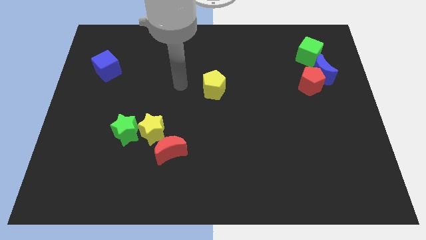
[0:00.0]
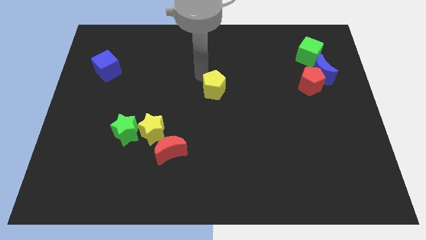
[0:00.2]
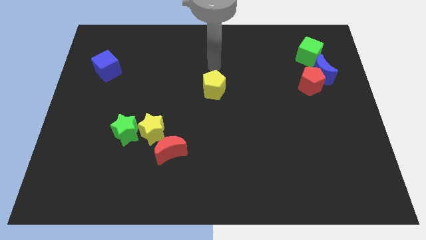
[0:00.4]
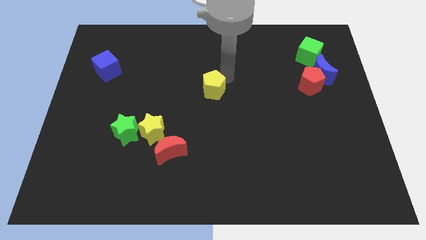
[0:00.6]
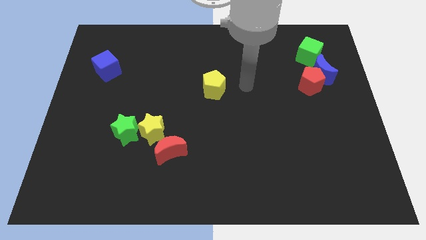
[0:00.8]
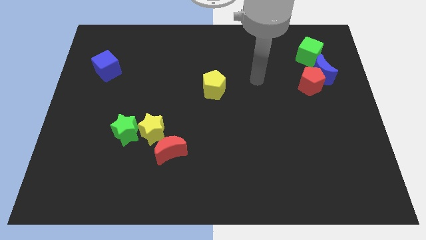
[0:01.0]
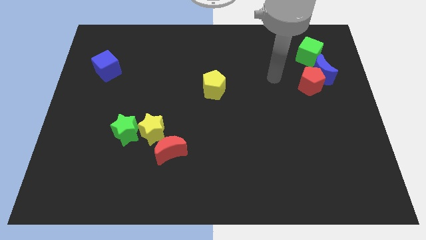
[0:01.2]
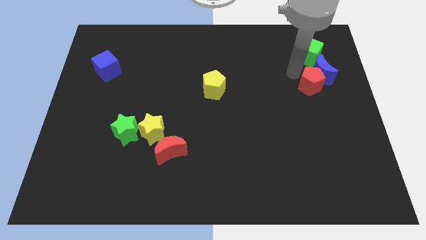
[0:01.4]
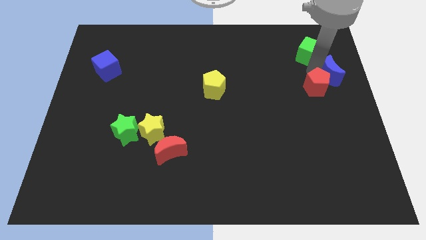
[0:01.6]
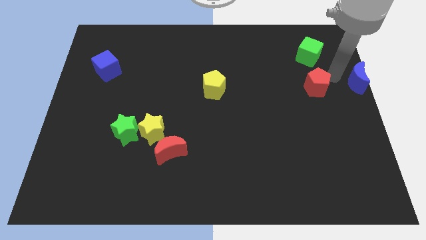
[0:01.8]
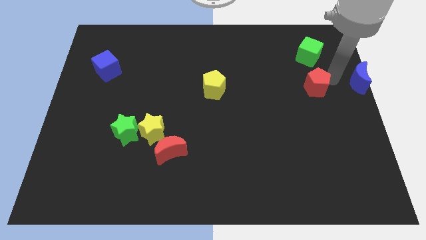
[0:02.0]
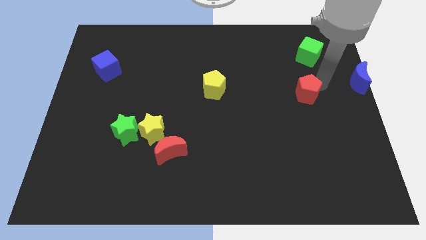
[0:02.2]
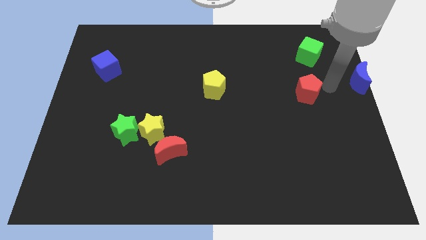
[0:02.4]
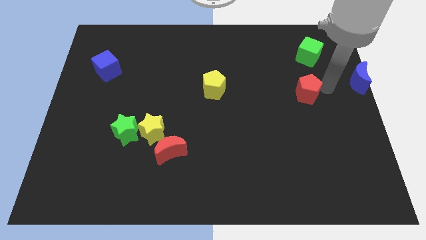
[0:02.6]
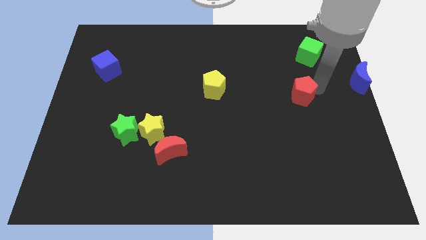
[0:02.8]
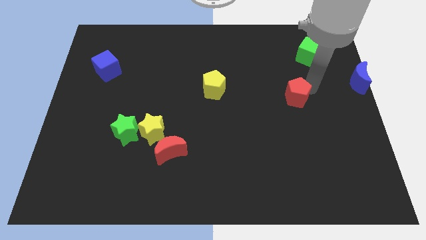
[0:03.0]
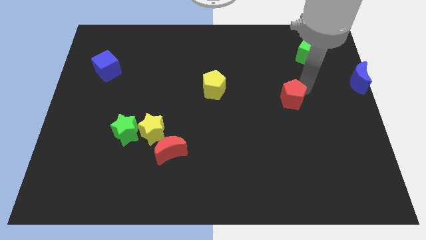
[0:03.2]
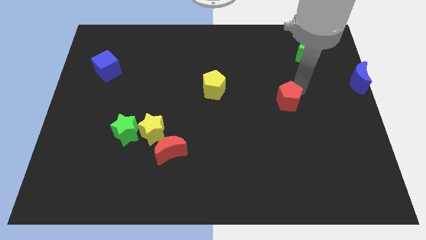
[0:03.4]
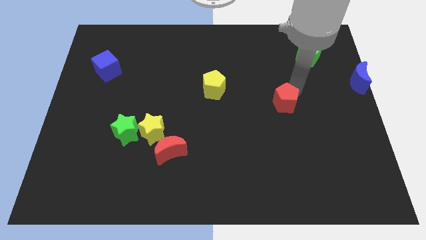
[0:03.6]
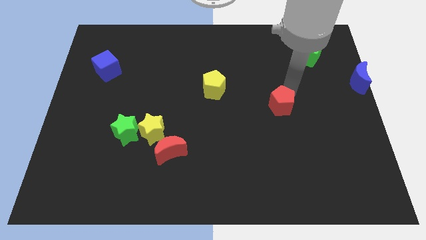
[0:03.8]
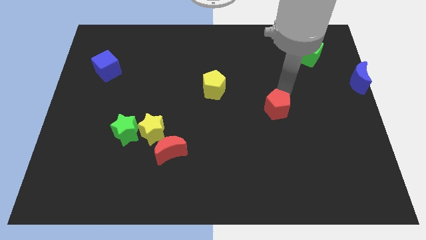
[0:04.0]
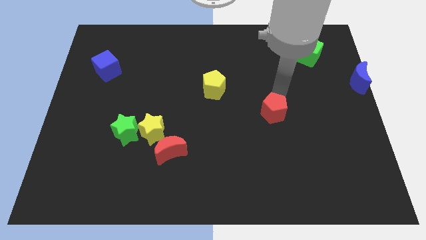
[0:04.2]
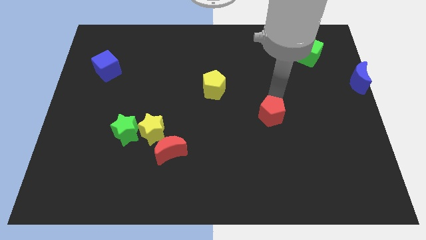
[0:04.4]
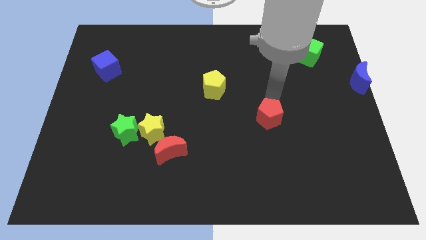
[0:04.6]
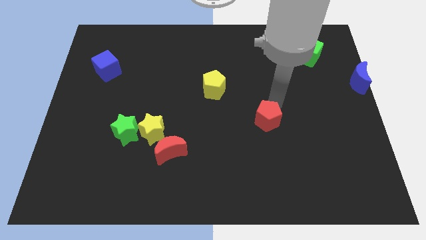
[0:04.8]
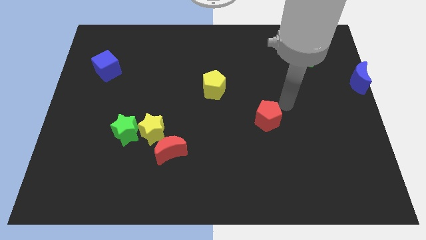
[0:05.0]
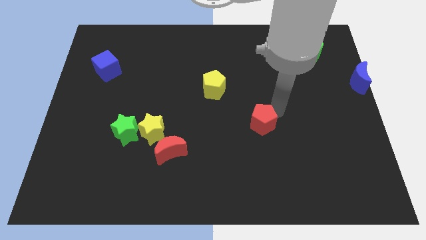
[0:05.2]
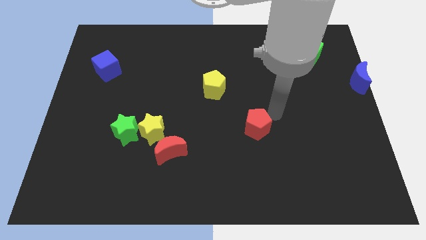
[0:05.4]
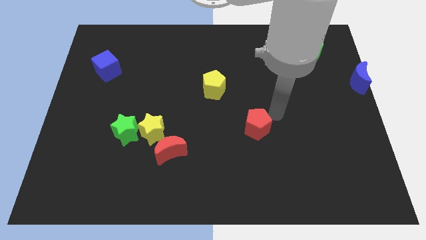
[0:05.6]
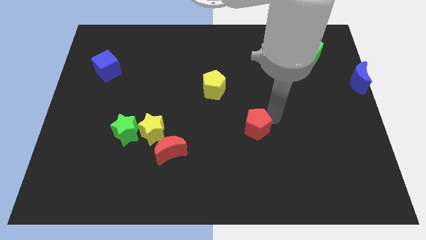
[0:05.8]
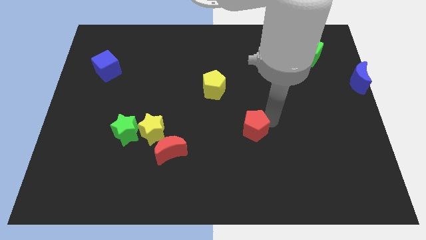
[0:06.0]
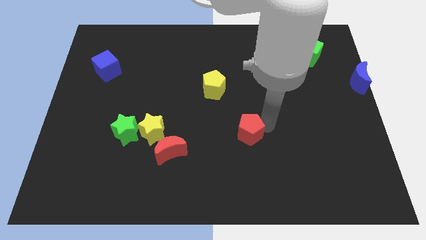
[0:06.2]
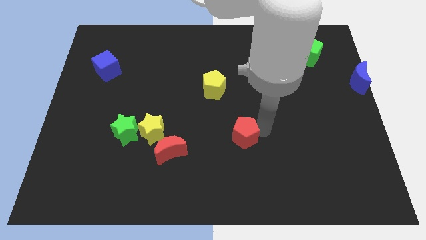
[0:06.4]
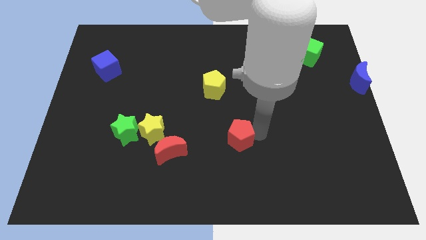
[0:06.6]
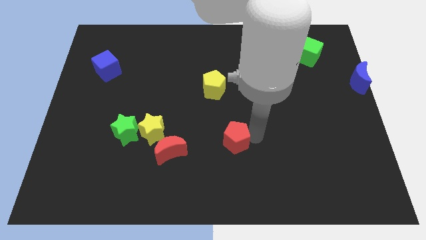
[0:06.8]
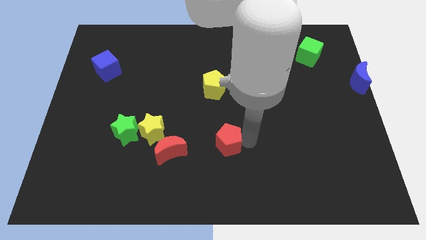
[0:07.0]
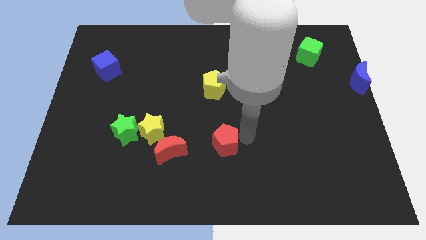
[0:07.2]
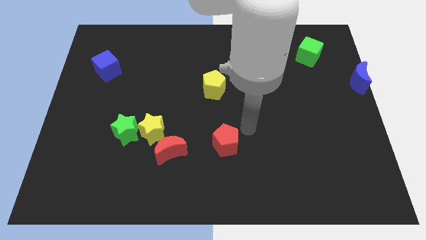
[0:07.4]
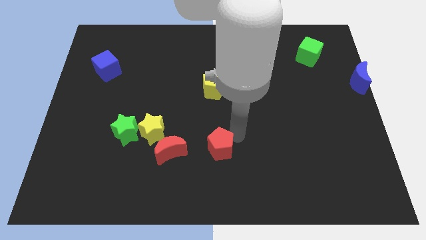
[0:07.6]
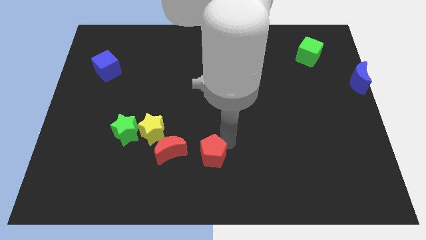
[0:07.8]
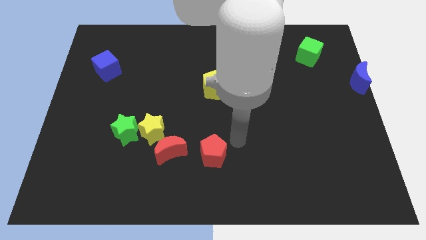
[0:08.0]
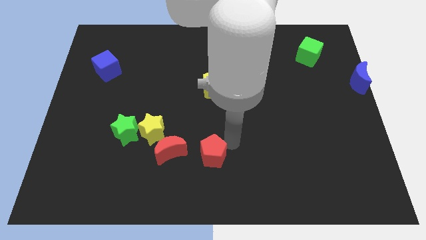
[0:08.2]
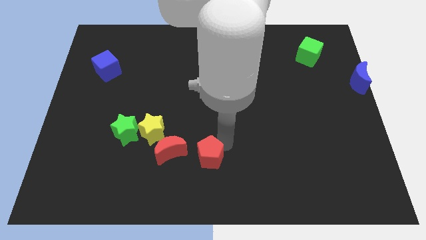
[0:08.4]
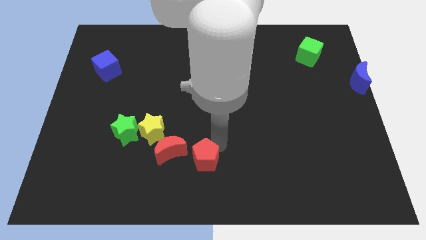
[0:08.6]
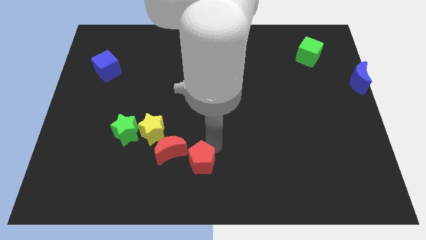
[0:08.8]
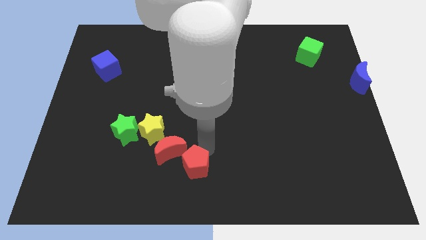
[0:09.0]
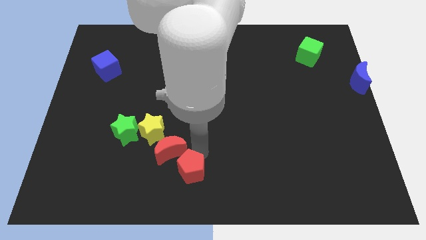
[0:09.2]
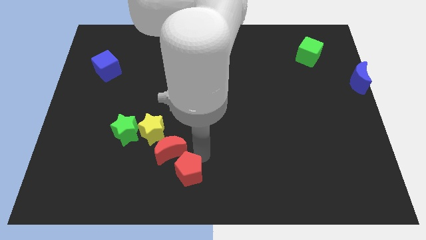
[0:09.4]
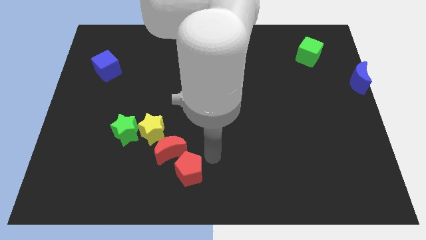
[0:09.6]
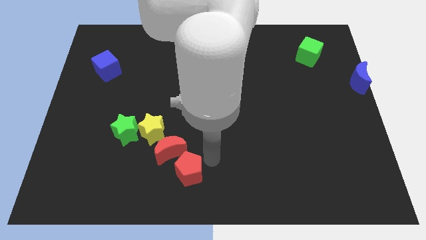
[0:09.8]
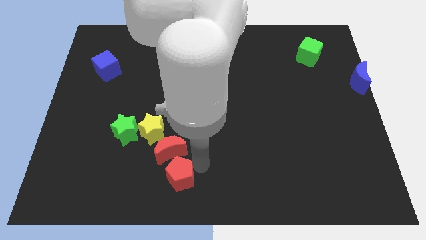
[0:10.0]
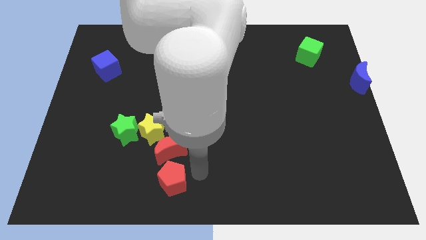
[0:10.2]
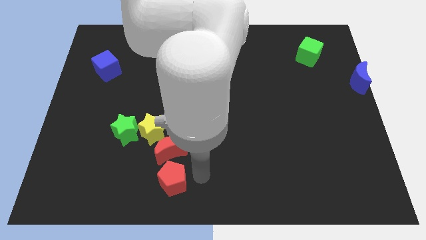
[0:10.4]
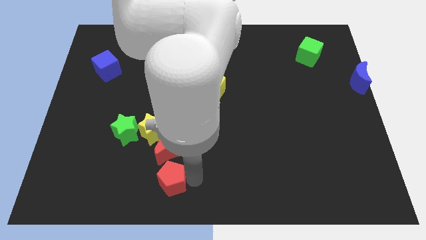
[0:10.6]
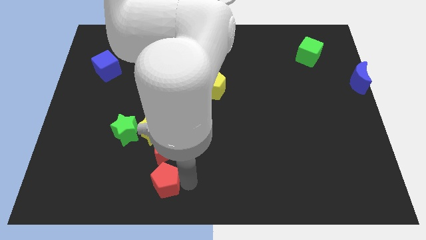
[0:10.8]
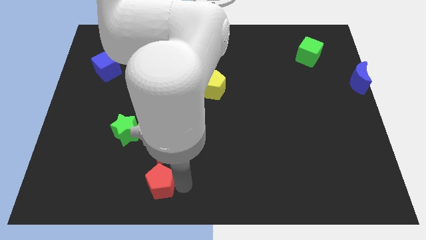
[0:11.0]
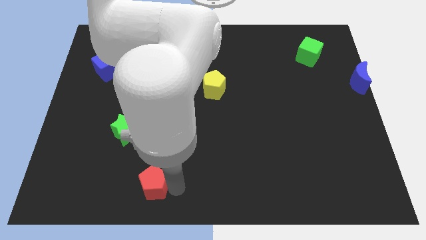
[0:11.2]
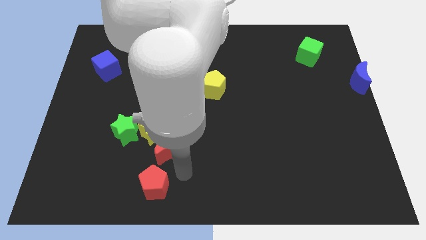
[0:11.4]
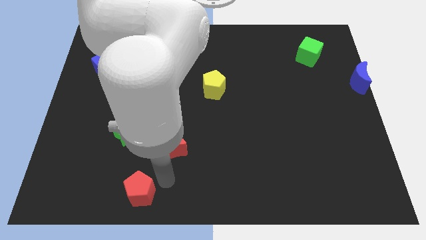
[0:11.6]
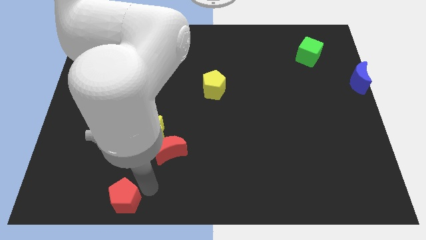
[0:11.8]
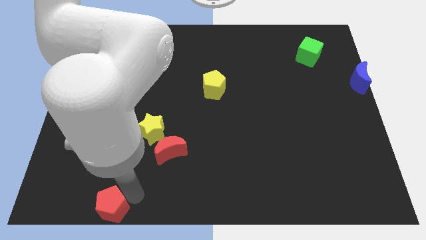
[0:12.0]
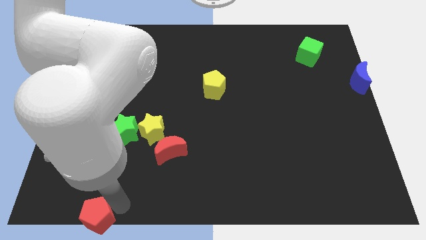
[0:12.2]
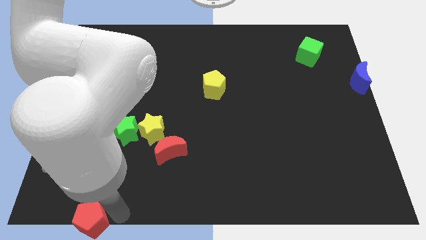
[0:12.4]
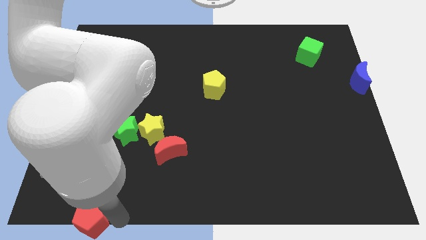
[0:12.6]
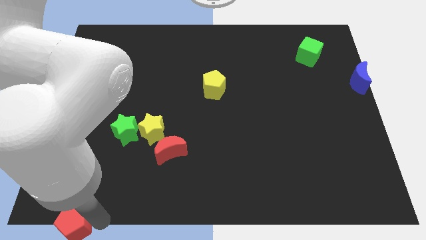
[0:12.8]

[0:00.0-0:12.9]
put the red pentagon to the bottom left of the board
